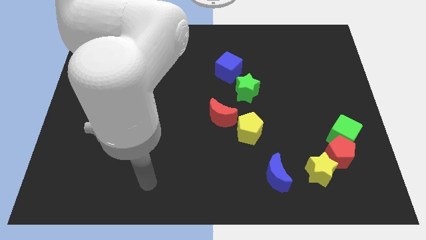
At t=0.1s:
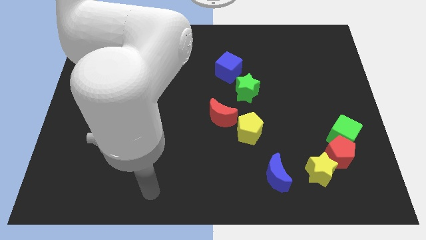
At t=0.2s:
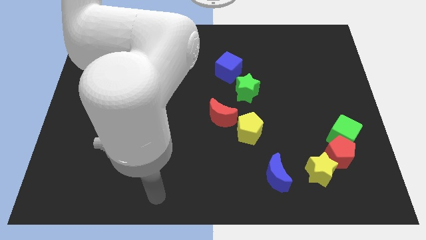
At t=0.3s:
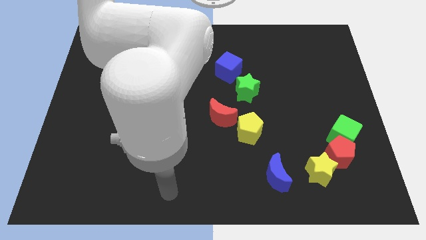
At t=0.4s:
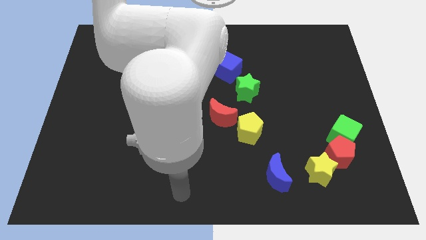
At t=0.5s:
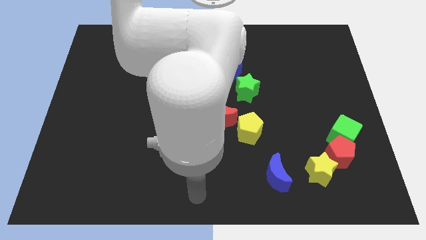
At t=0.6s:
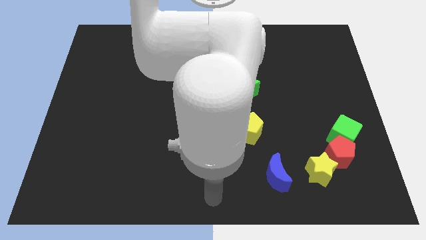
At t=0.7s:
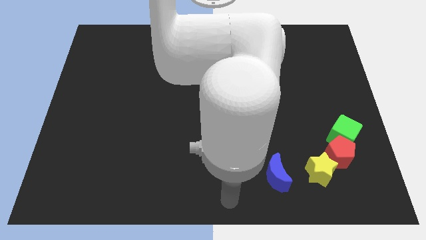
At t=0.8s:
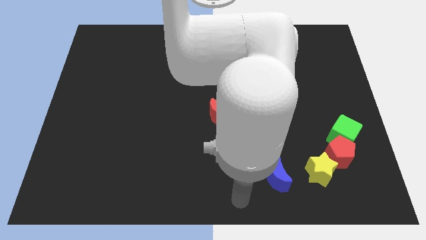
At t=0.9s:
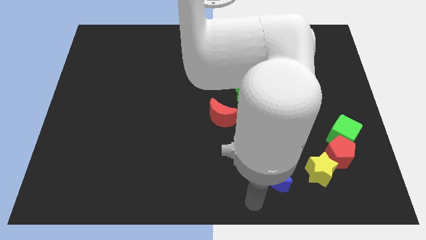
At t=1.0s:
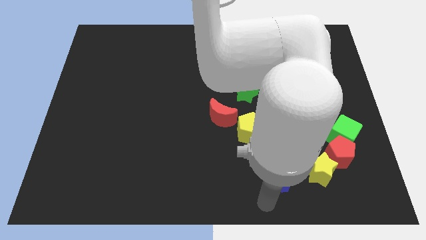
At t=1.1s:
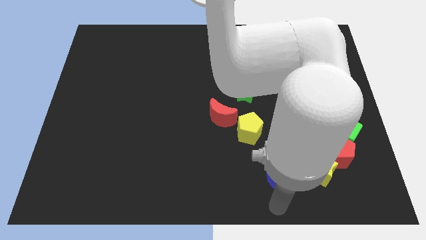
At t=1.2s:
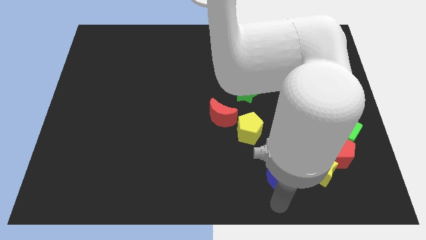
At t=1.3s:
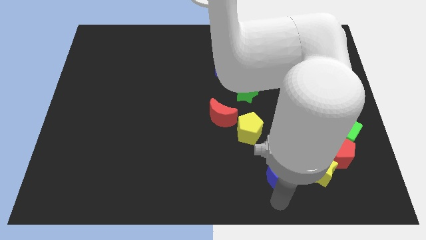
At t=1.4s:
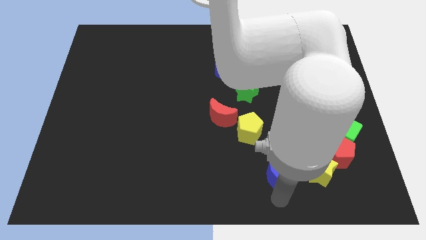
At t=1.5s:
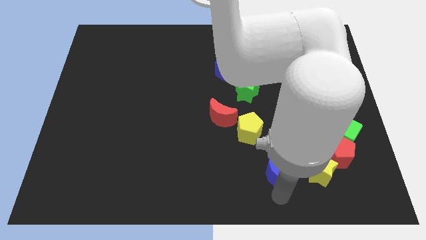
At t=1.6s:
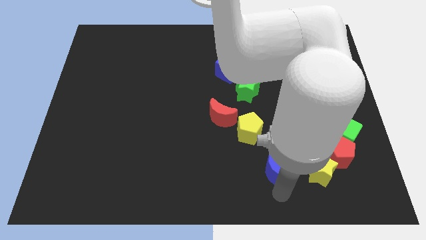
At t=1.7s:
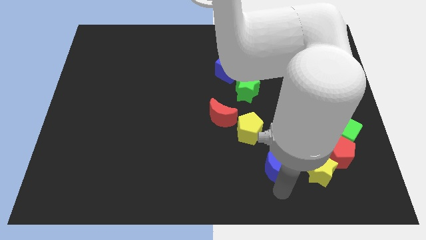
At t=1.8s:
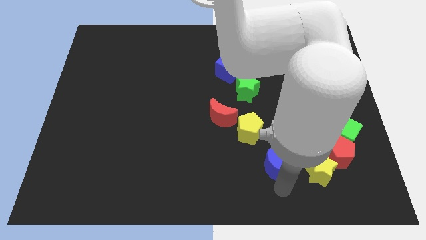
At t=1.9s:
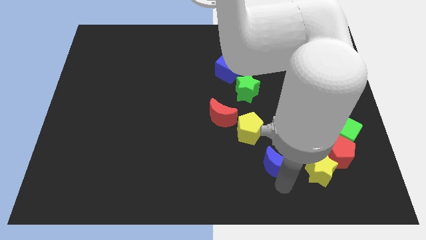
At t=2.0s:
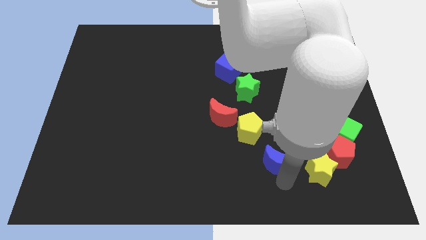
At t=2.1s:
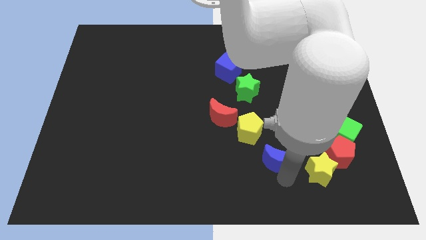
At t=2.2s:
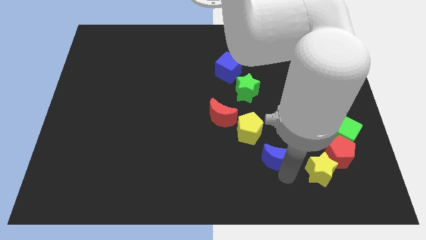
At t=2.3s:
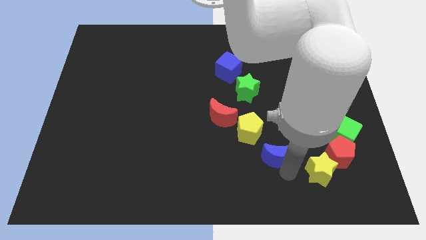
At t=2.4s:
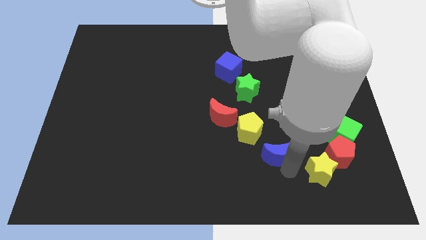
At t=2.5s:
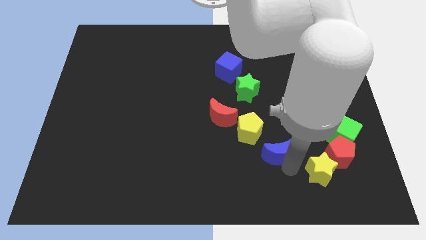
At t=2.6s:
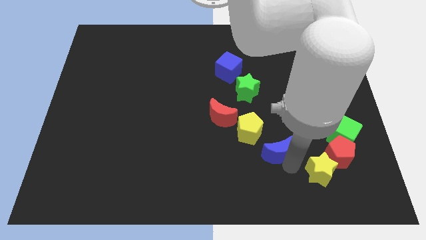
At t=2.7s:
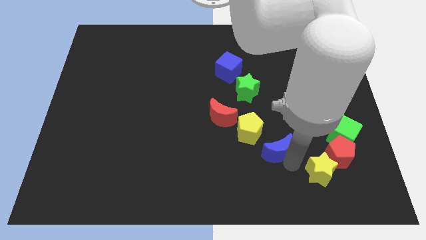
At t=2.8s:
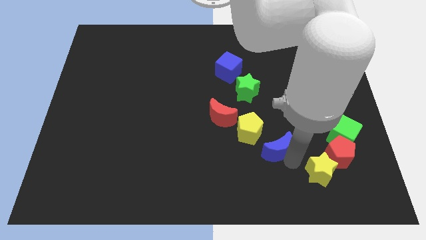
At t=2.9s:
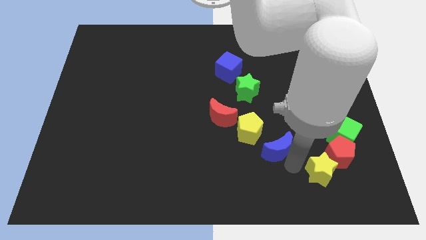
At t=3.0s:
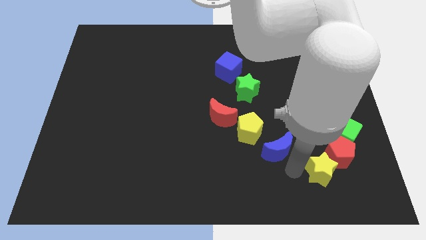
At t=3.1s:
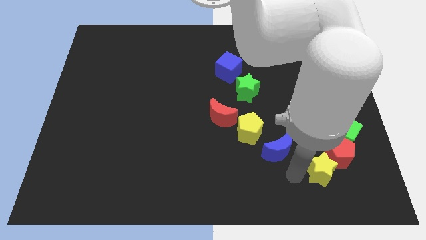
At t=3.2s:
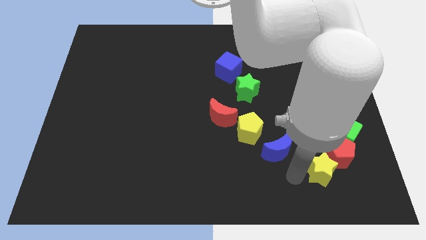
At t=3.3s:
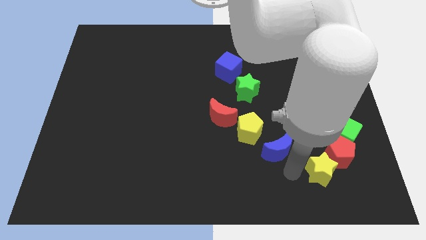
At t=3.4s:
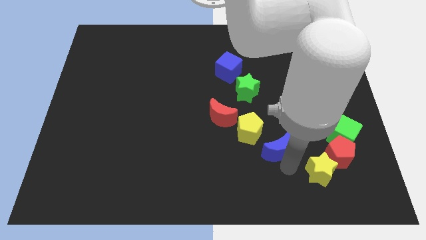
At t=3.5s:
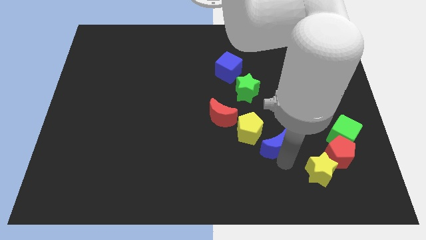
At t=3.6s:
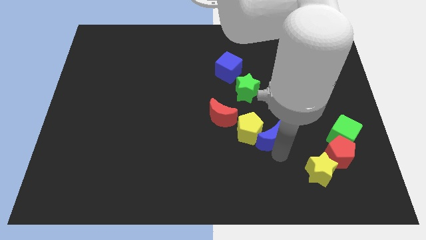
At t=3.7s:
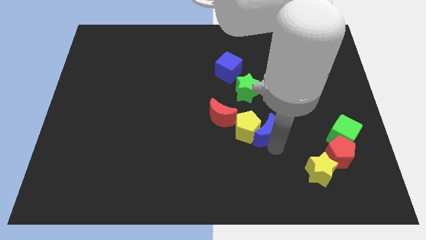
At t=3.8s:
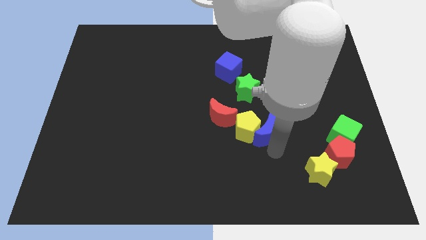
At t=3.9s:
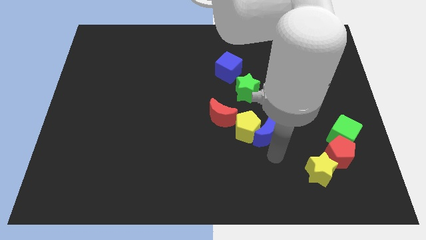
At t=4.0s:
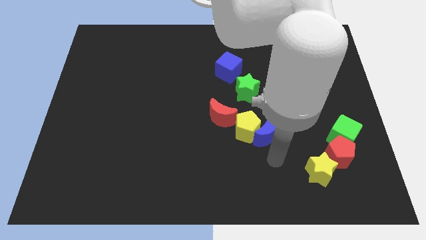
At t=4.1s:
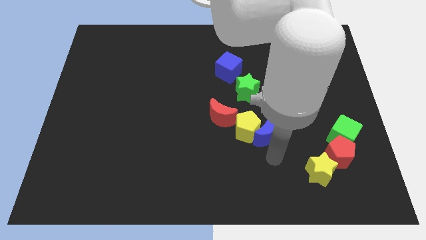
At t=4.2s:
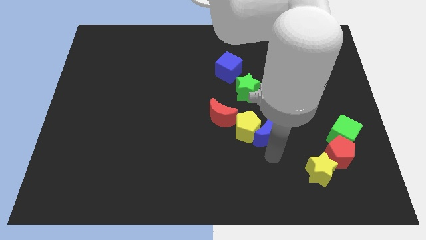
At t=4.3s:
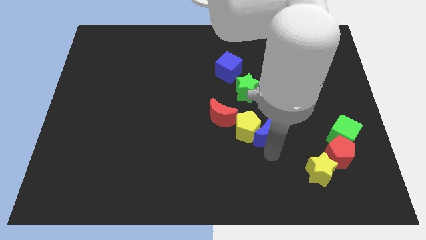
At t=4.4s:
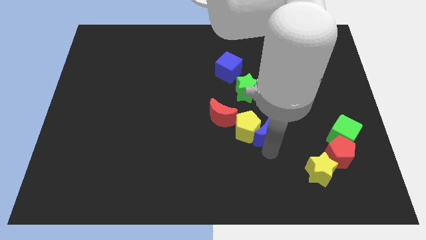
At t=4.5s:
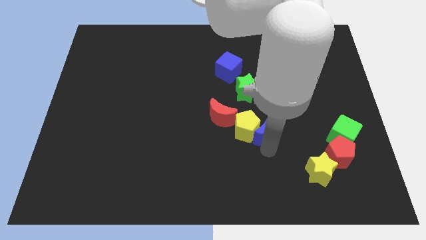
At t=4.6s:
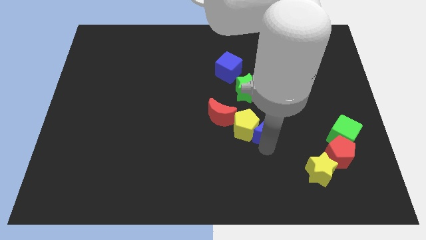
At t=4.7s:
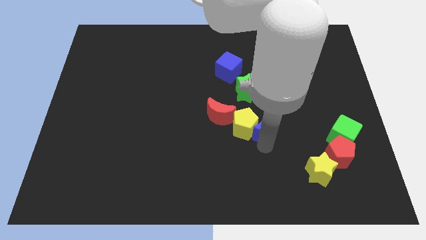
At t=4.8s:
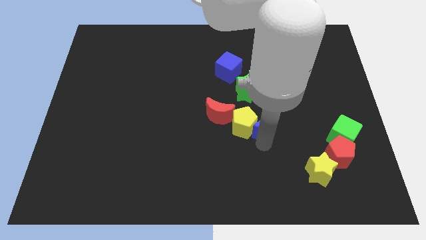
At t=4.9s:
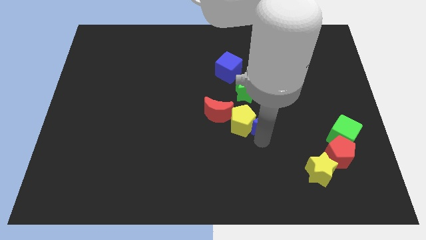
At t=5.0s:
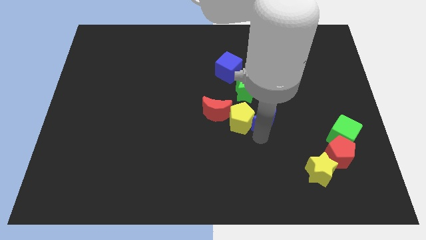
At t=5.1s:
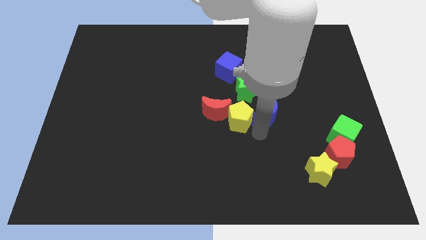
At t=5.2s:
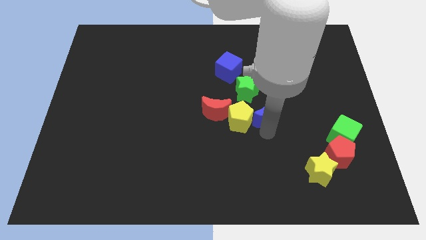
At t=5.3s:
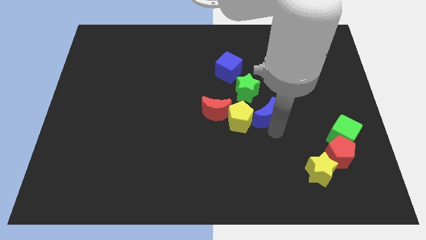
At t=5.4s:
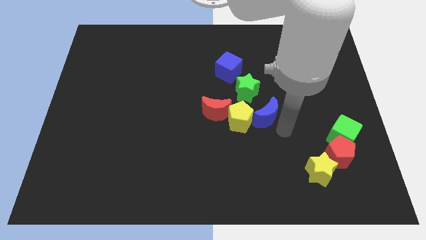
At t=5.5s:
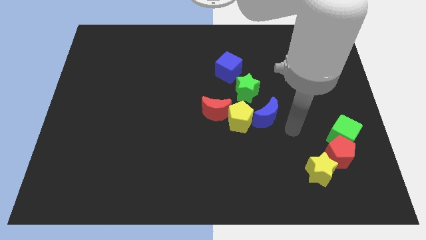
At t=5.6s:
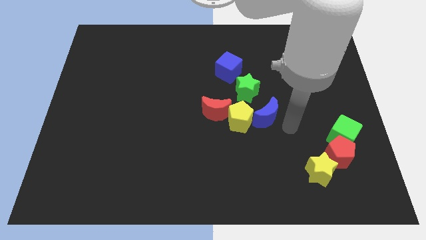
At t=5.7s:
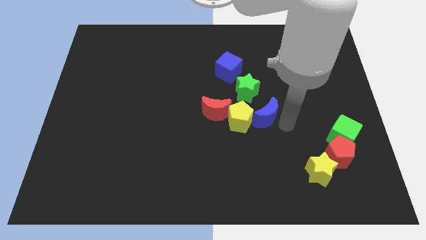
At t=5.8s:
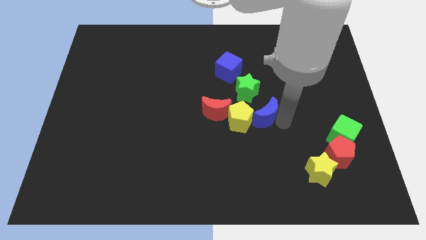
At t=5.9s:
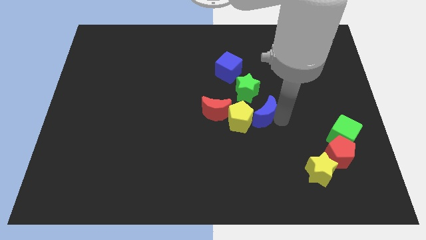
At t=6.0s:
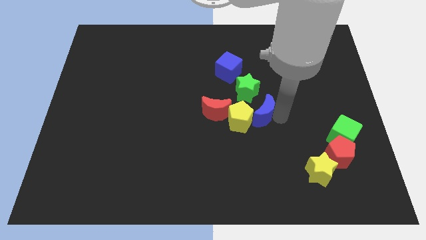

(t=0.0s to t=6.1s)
move the blue moon to the center

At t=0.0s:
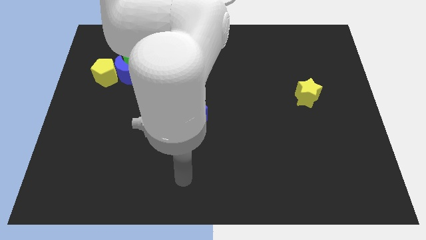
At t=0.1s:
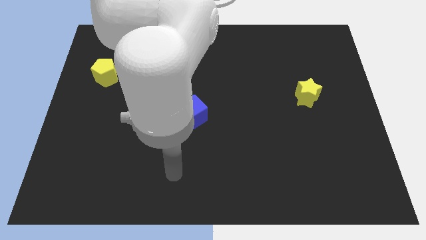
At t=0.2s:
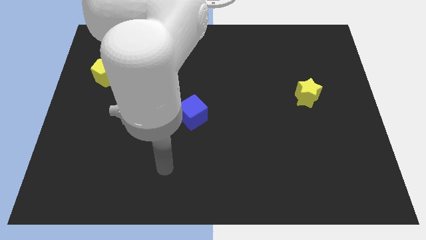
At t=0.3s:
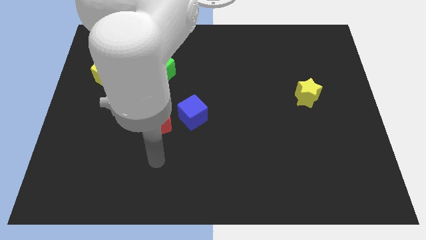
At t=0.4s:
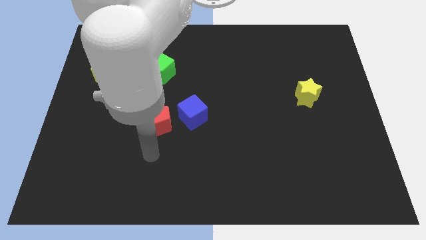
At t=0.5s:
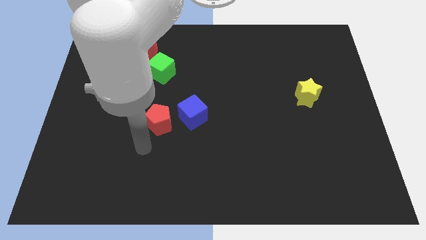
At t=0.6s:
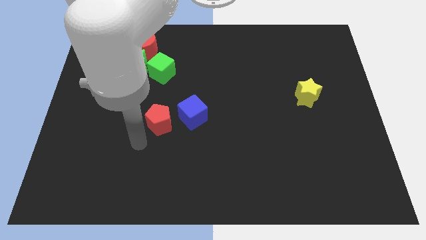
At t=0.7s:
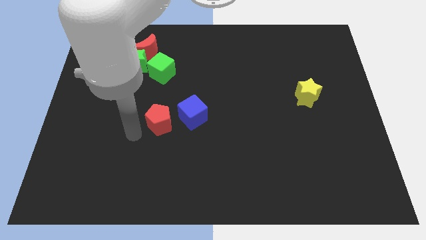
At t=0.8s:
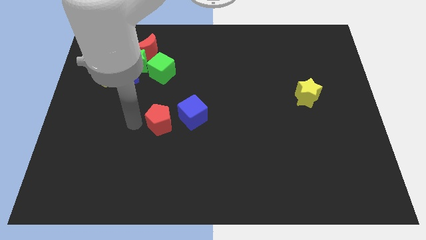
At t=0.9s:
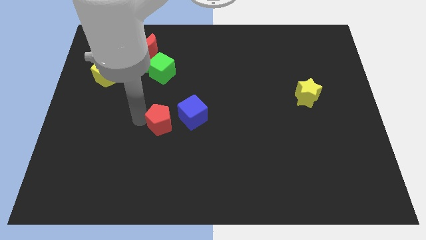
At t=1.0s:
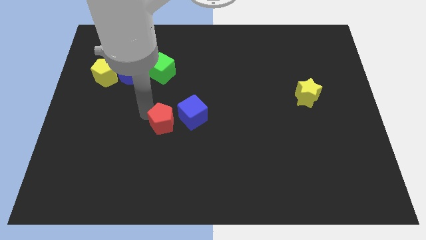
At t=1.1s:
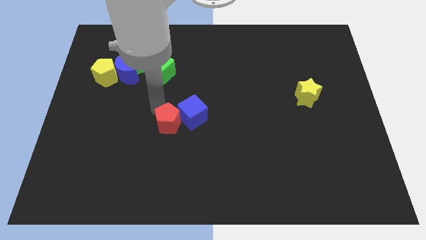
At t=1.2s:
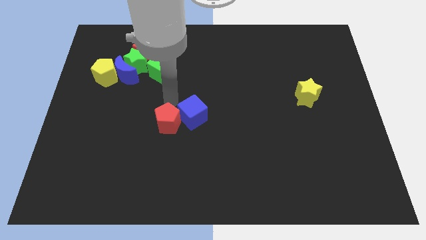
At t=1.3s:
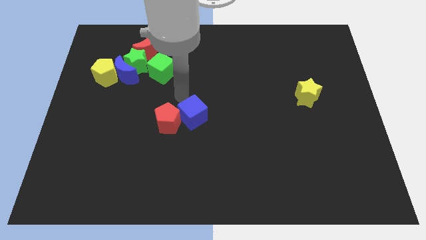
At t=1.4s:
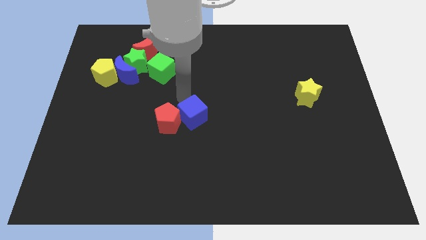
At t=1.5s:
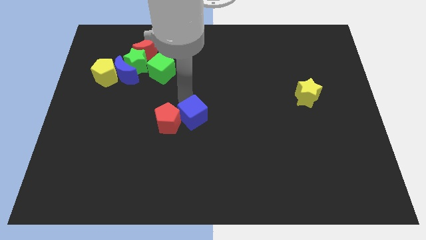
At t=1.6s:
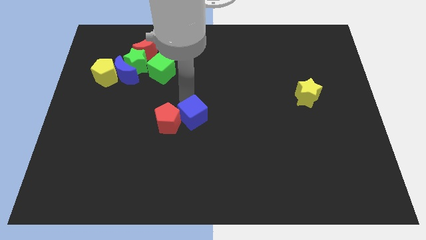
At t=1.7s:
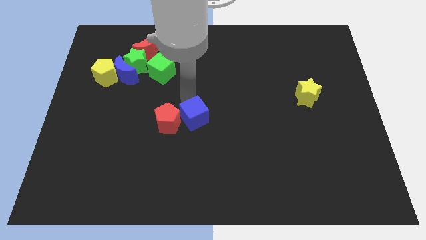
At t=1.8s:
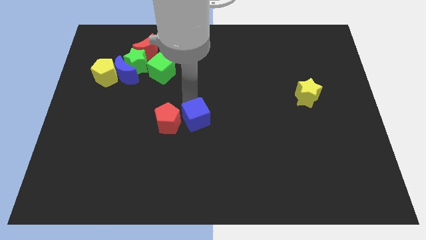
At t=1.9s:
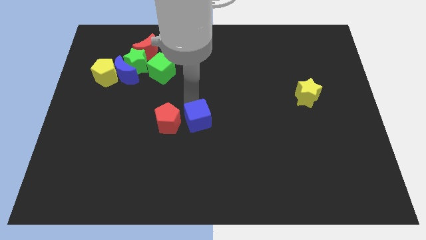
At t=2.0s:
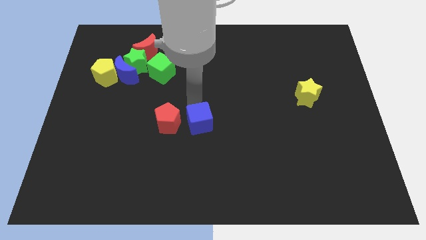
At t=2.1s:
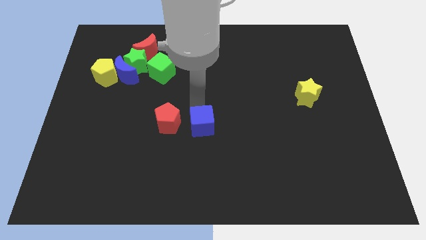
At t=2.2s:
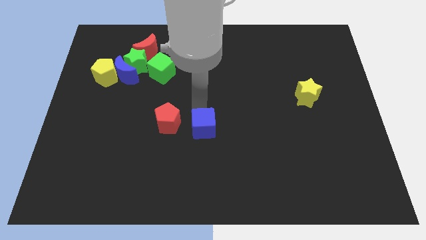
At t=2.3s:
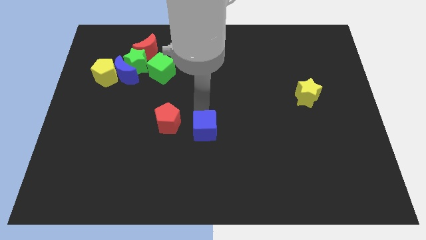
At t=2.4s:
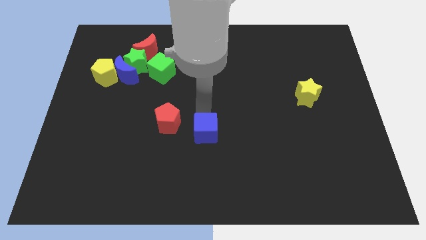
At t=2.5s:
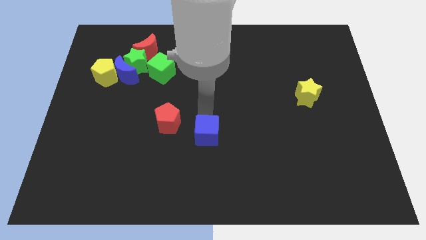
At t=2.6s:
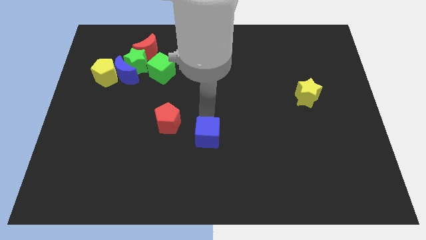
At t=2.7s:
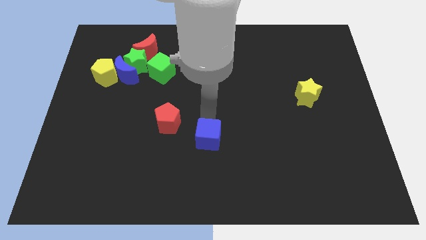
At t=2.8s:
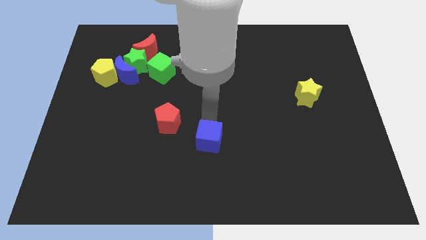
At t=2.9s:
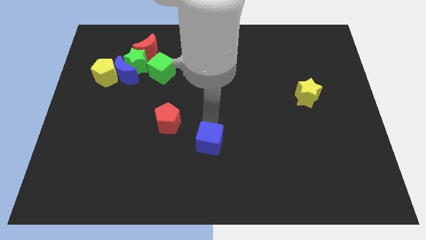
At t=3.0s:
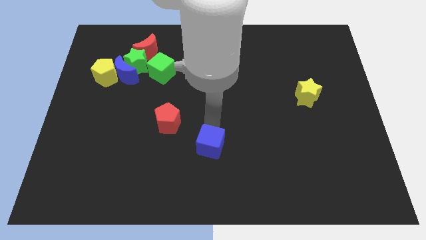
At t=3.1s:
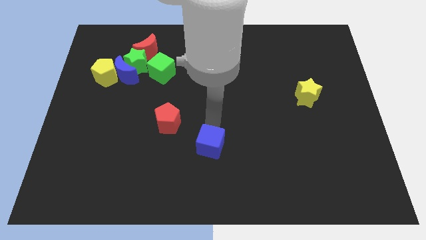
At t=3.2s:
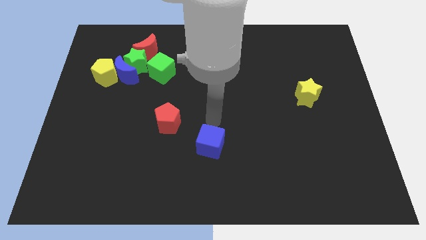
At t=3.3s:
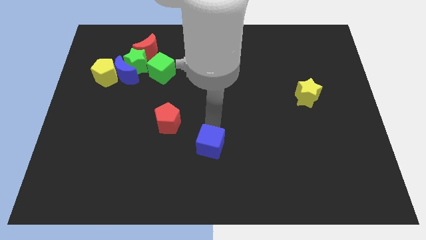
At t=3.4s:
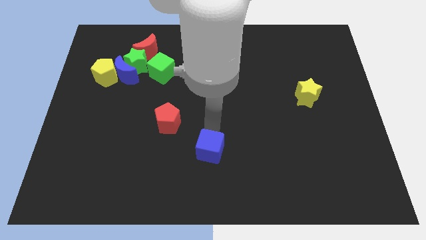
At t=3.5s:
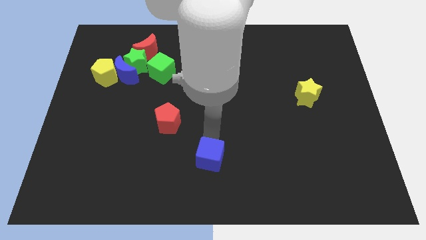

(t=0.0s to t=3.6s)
put the blue cube to the bottom
